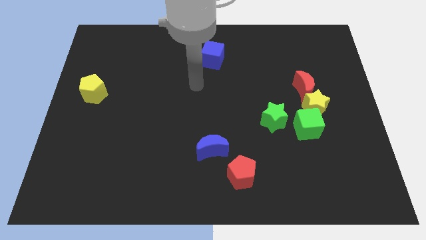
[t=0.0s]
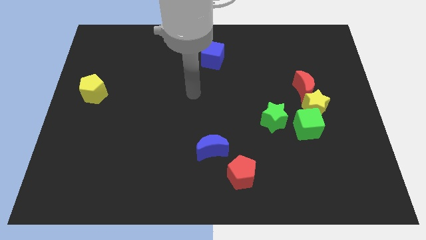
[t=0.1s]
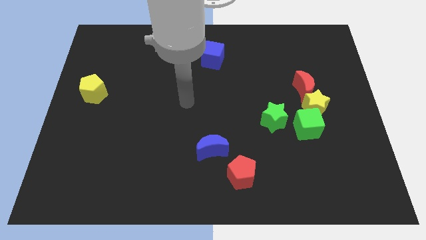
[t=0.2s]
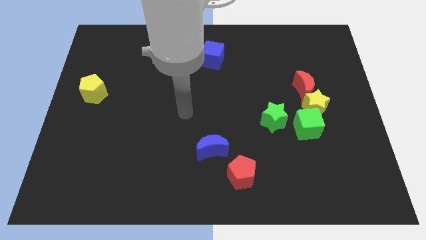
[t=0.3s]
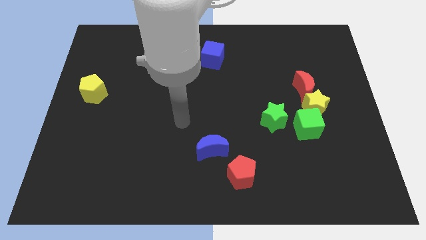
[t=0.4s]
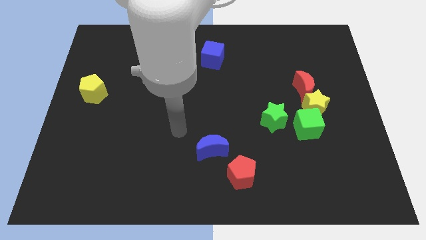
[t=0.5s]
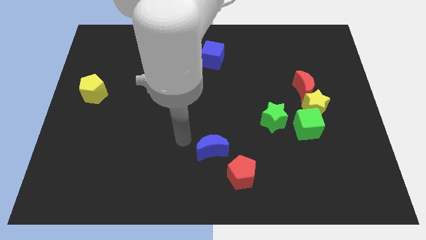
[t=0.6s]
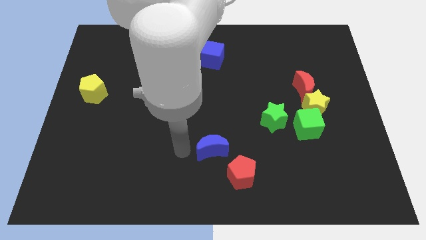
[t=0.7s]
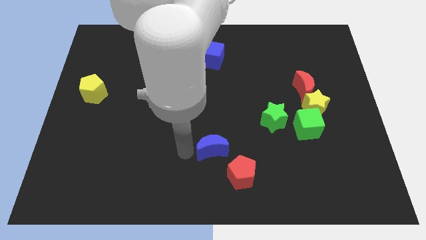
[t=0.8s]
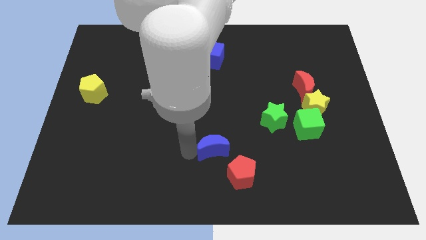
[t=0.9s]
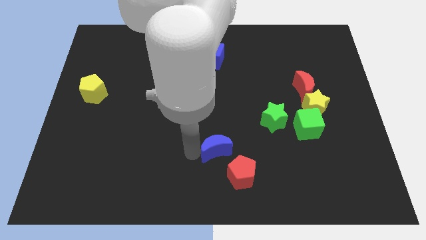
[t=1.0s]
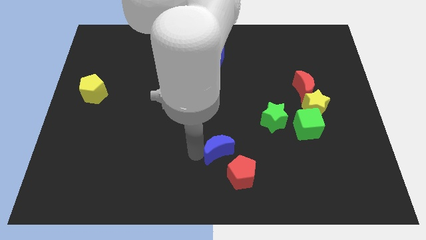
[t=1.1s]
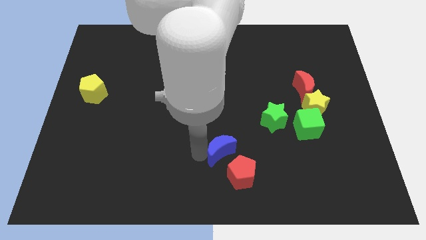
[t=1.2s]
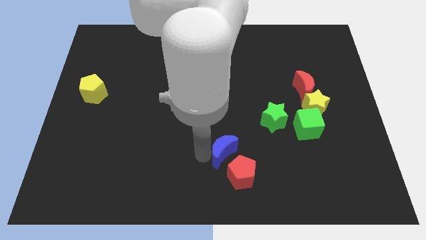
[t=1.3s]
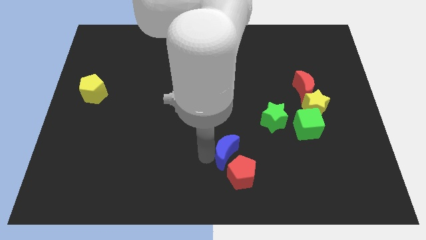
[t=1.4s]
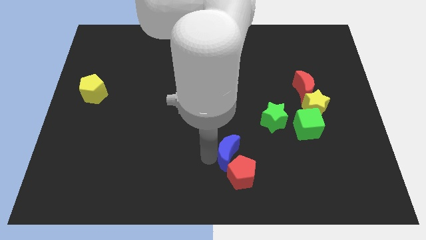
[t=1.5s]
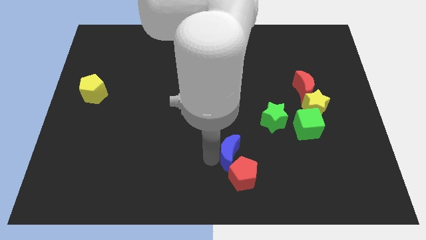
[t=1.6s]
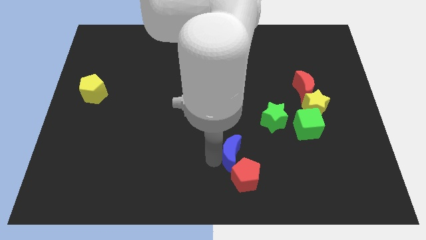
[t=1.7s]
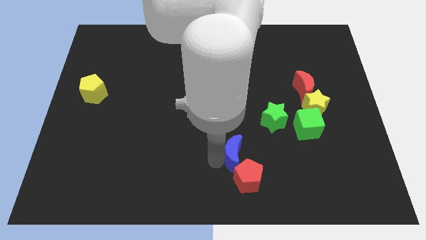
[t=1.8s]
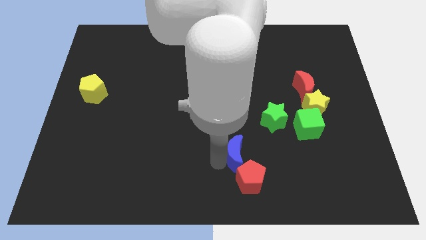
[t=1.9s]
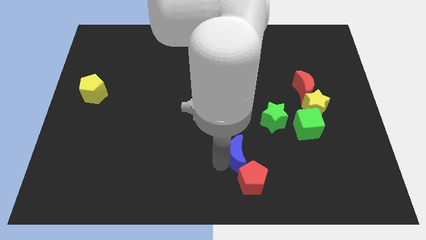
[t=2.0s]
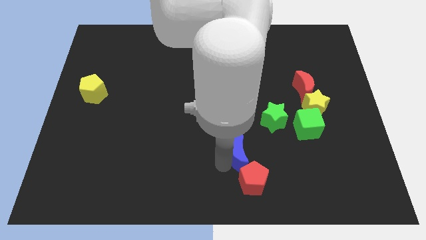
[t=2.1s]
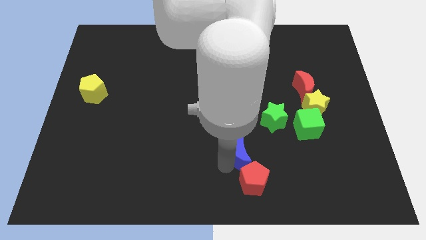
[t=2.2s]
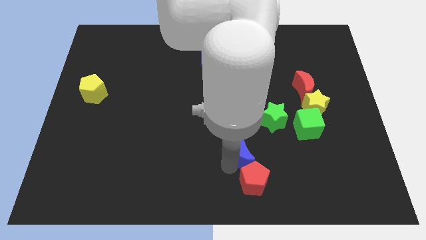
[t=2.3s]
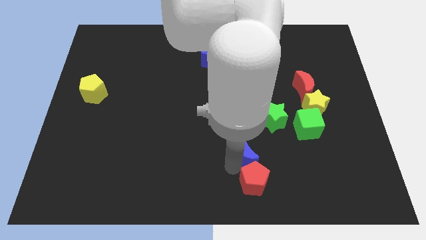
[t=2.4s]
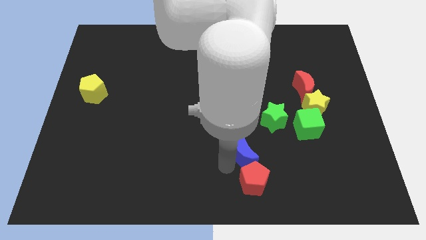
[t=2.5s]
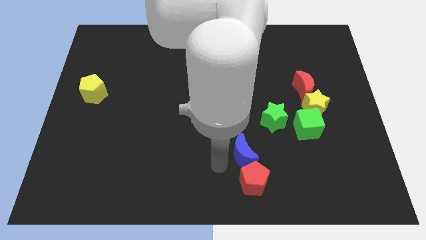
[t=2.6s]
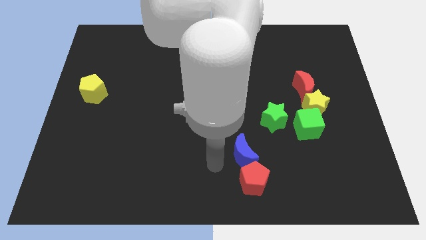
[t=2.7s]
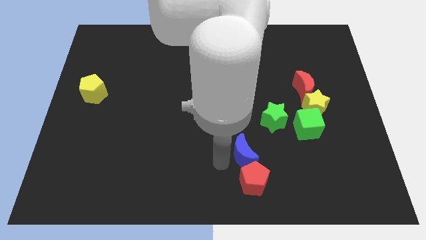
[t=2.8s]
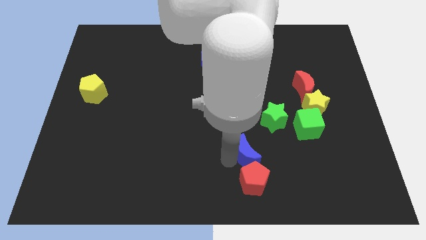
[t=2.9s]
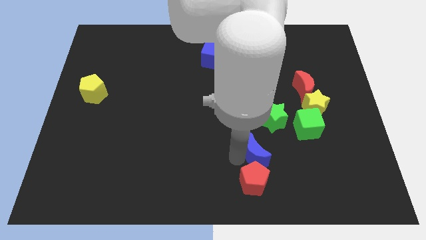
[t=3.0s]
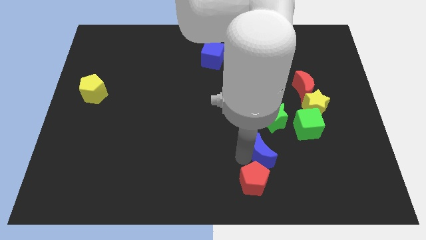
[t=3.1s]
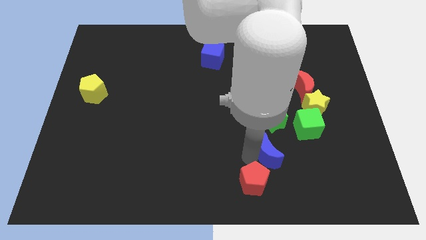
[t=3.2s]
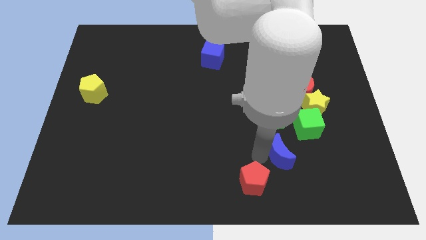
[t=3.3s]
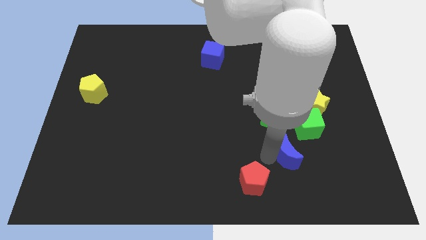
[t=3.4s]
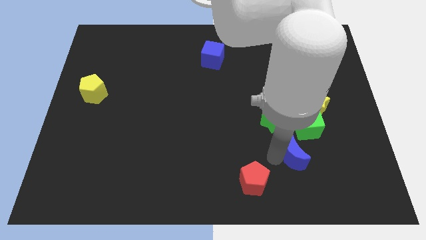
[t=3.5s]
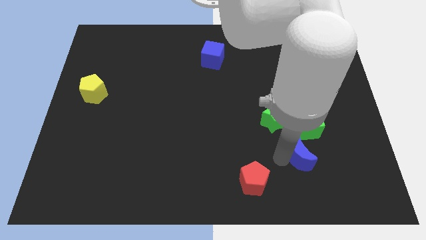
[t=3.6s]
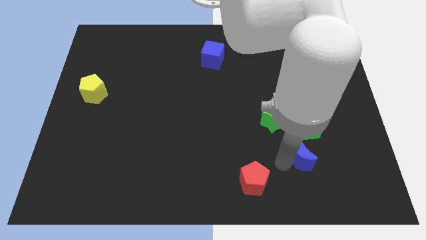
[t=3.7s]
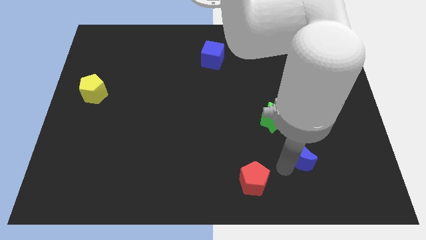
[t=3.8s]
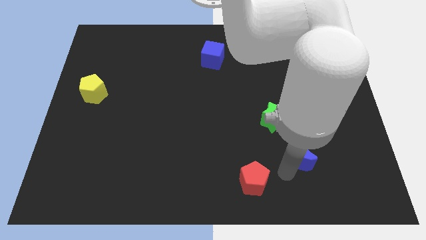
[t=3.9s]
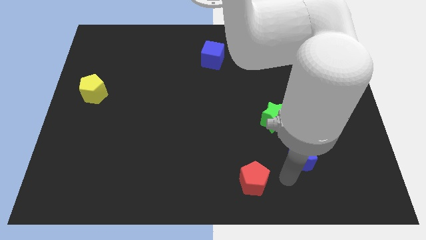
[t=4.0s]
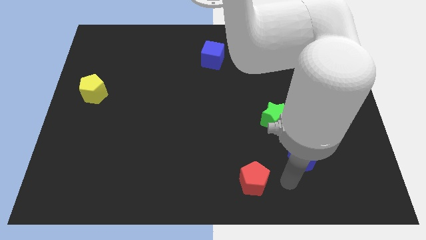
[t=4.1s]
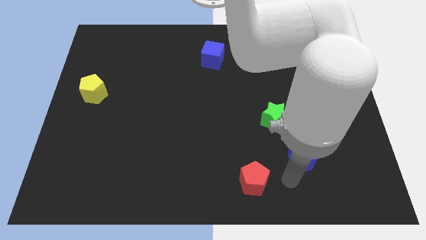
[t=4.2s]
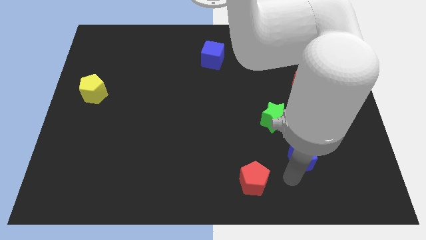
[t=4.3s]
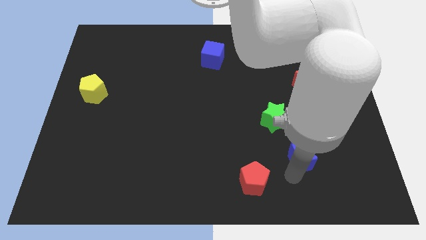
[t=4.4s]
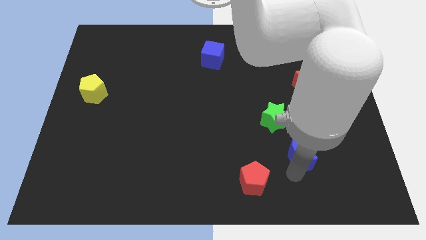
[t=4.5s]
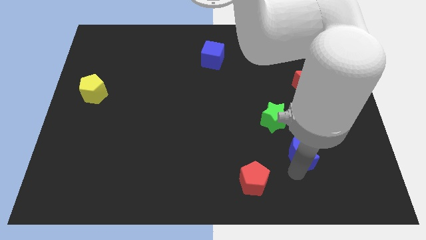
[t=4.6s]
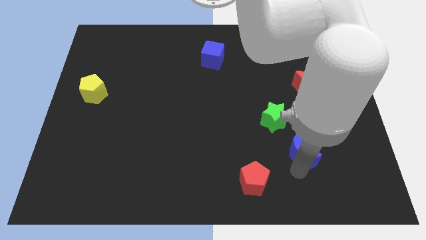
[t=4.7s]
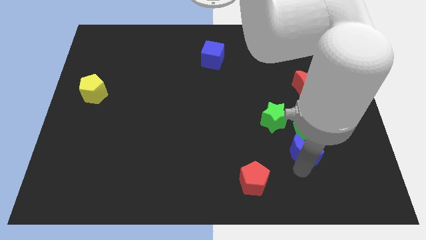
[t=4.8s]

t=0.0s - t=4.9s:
push the blue moon to the bottom of the yellow star

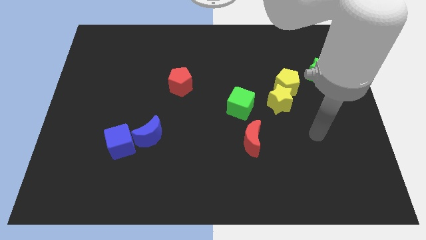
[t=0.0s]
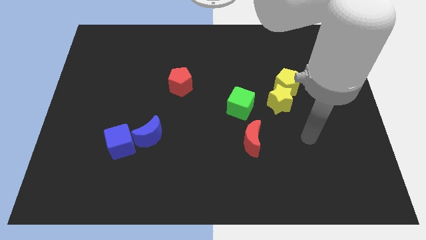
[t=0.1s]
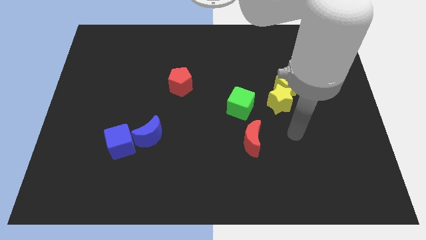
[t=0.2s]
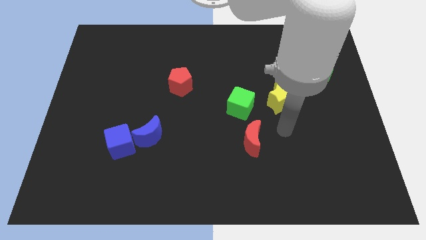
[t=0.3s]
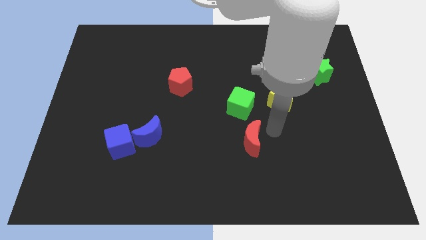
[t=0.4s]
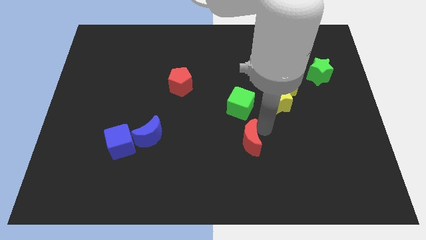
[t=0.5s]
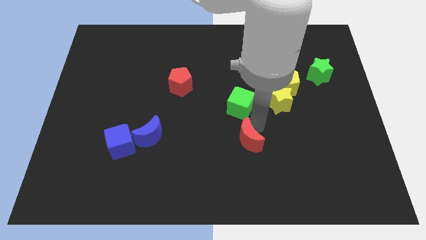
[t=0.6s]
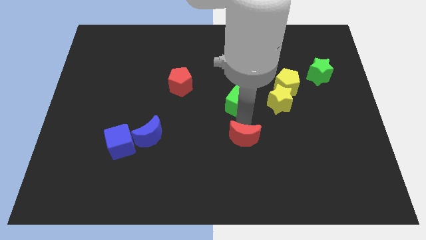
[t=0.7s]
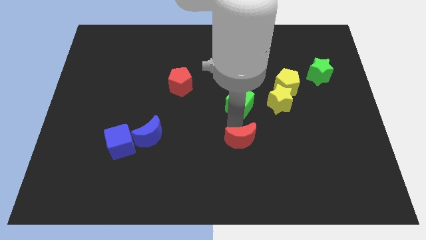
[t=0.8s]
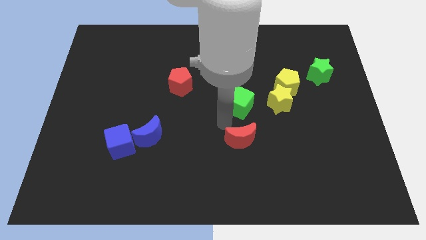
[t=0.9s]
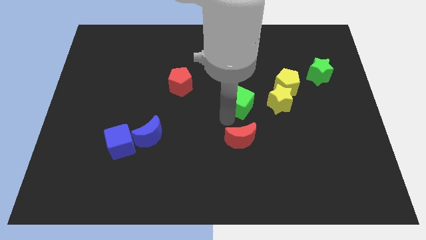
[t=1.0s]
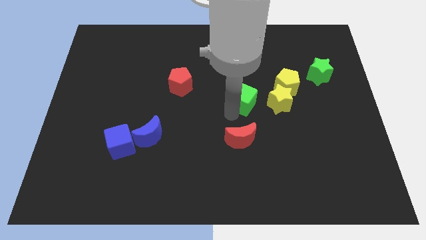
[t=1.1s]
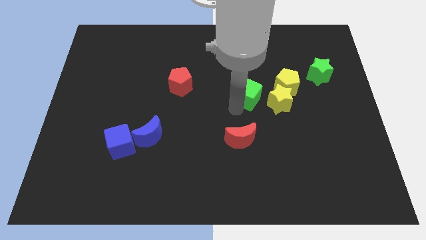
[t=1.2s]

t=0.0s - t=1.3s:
slide the green cube to the top left side of the yellow star

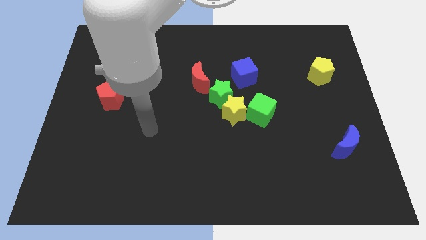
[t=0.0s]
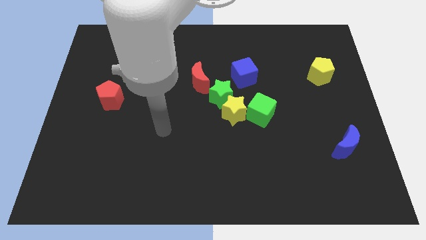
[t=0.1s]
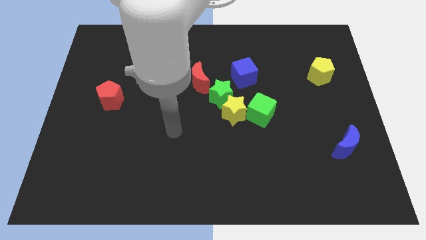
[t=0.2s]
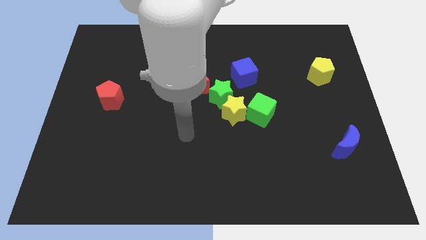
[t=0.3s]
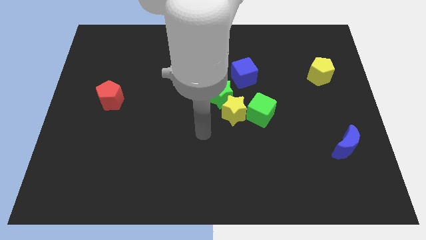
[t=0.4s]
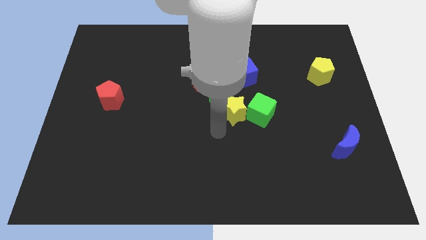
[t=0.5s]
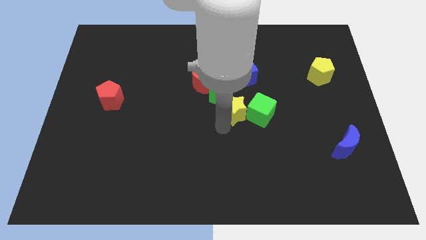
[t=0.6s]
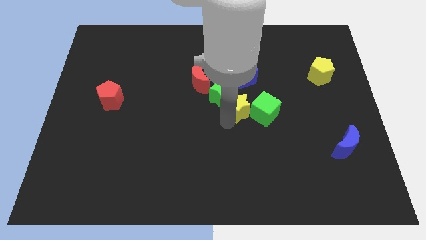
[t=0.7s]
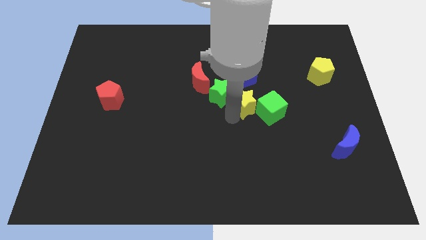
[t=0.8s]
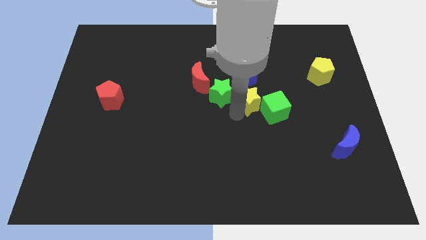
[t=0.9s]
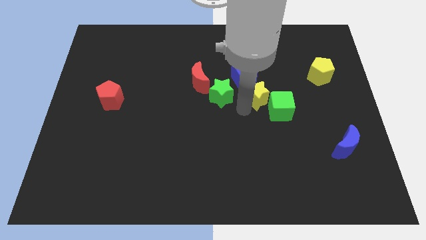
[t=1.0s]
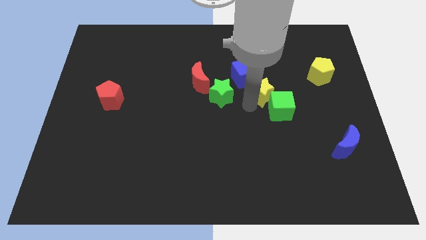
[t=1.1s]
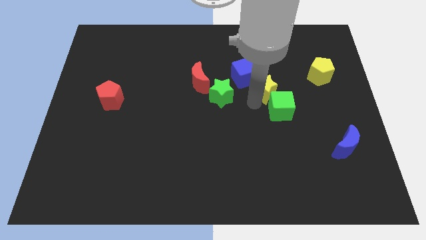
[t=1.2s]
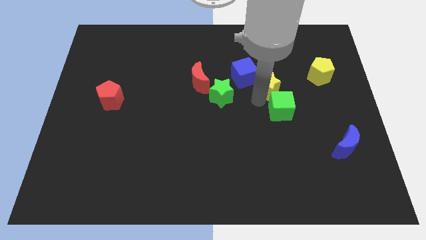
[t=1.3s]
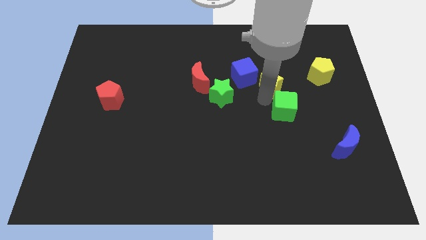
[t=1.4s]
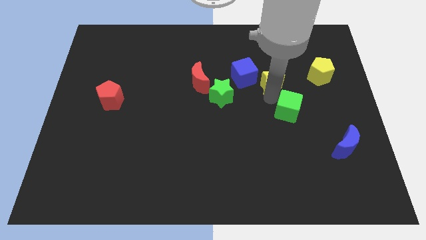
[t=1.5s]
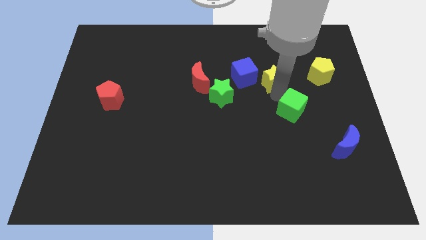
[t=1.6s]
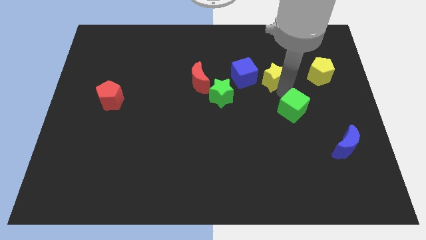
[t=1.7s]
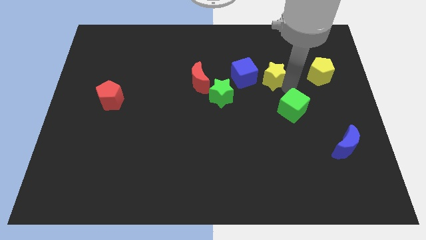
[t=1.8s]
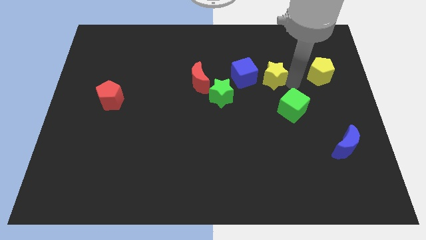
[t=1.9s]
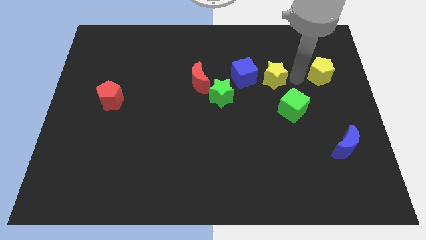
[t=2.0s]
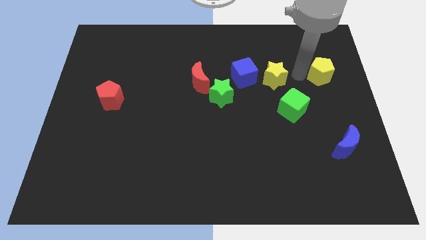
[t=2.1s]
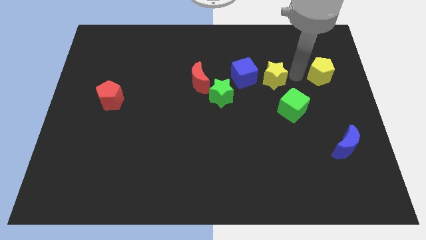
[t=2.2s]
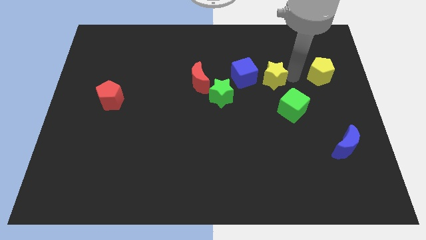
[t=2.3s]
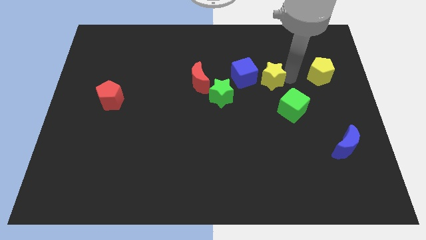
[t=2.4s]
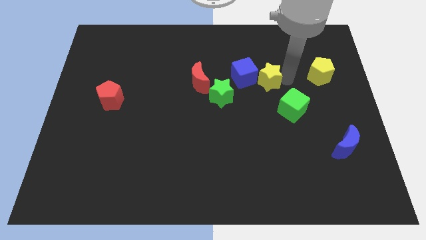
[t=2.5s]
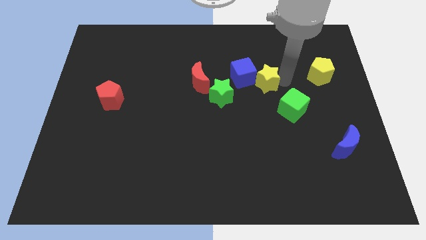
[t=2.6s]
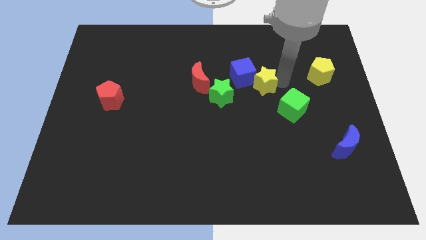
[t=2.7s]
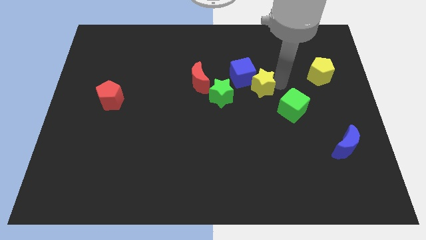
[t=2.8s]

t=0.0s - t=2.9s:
move the yellow star just right of the red moon
